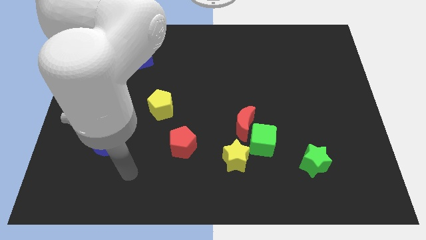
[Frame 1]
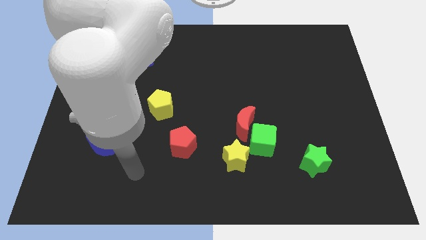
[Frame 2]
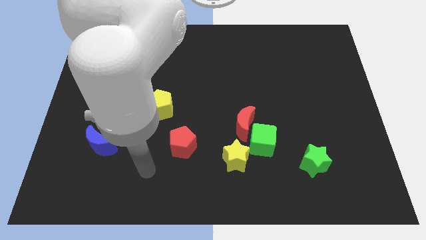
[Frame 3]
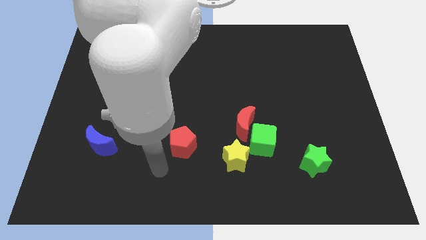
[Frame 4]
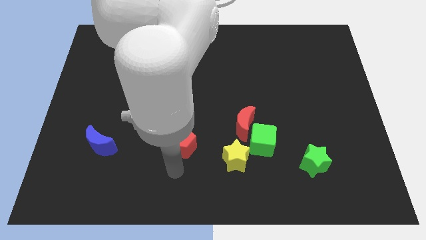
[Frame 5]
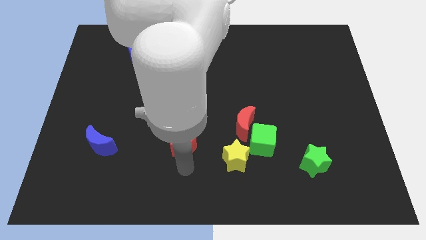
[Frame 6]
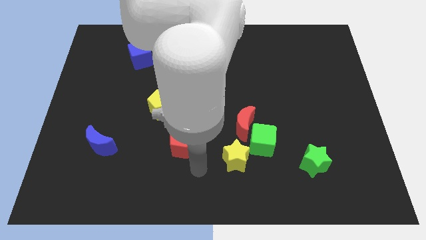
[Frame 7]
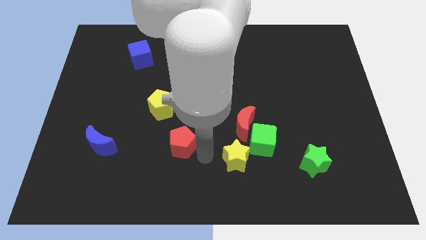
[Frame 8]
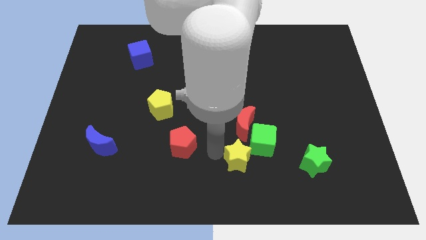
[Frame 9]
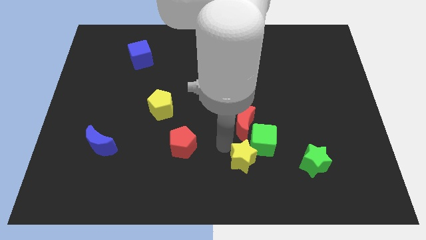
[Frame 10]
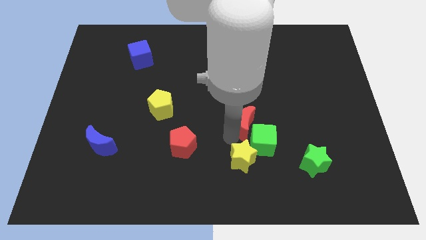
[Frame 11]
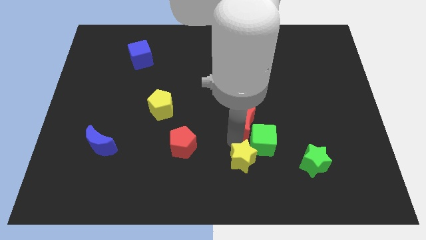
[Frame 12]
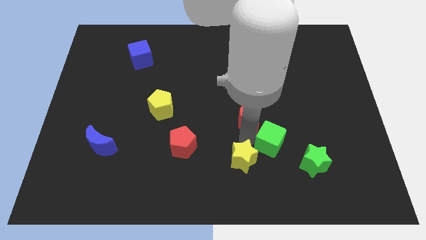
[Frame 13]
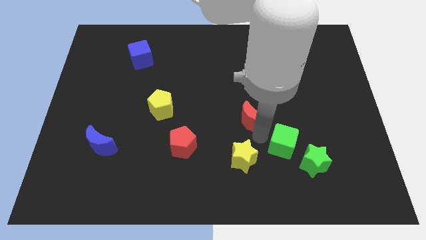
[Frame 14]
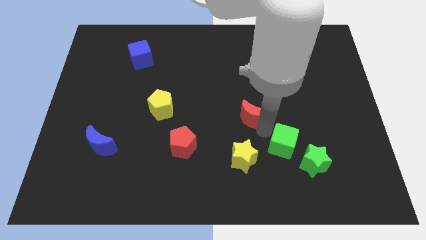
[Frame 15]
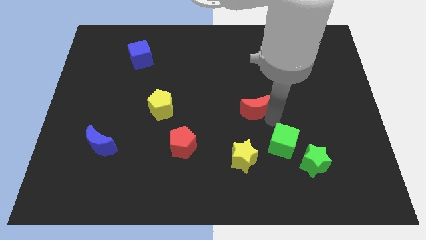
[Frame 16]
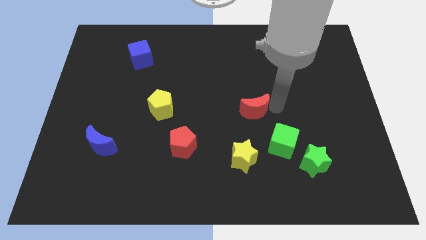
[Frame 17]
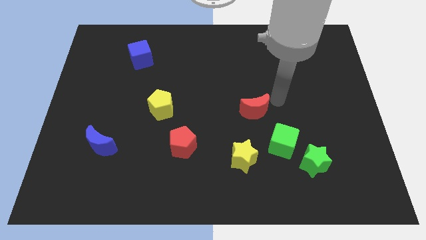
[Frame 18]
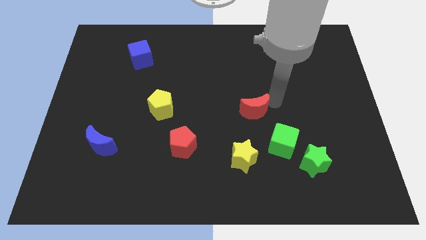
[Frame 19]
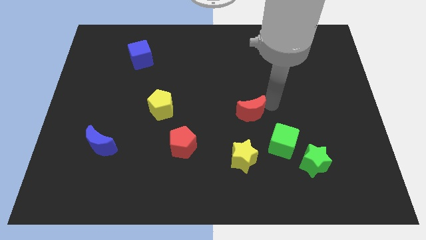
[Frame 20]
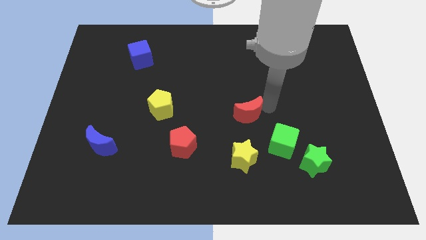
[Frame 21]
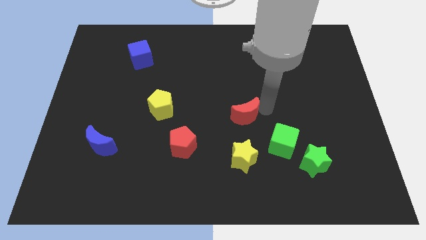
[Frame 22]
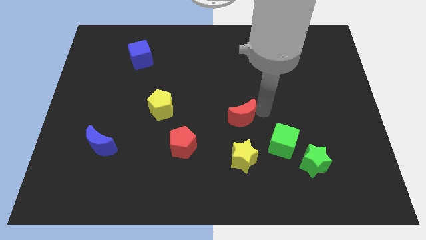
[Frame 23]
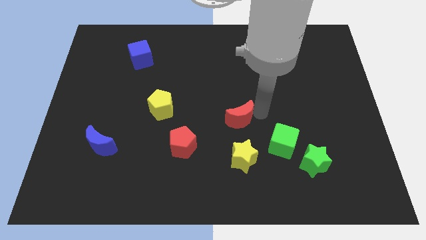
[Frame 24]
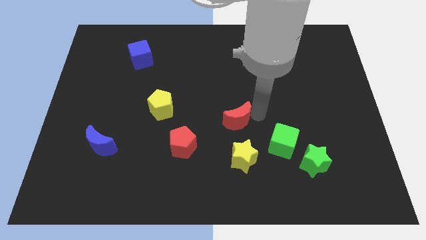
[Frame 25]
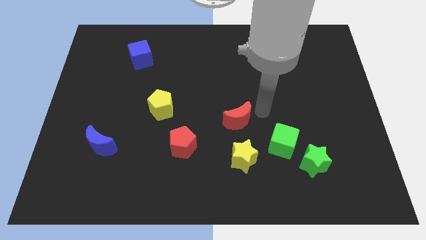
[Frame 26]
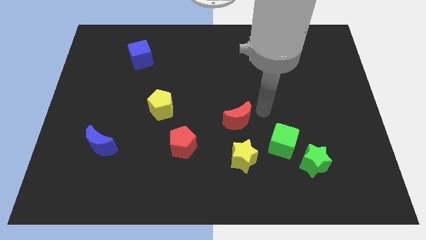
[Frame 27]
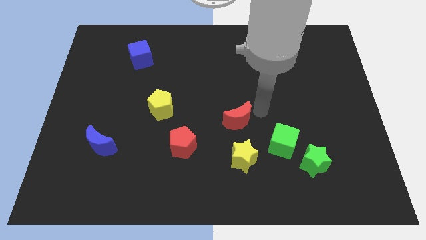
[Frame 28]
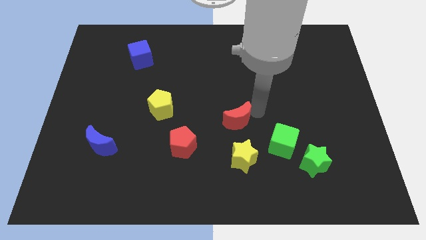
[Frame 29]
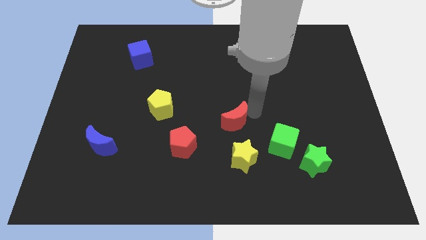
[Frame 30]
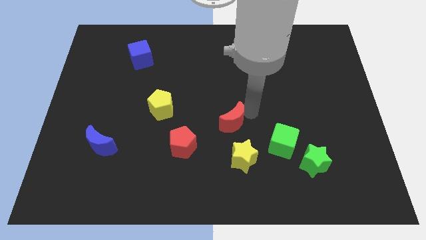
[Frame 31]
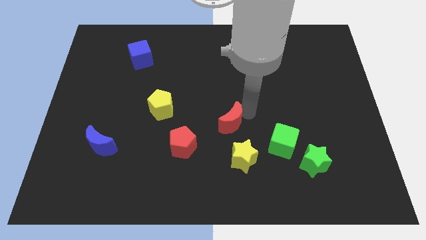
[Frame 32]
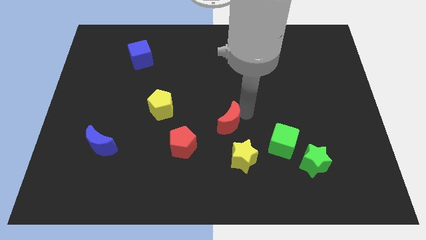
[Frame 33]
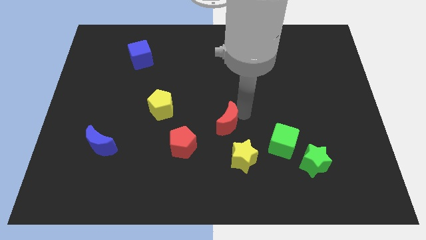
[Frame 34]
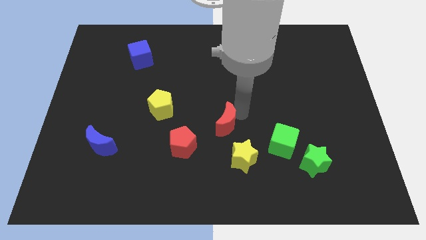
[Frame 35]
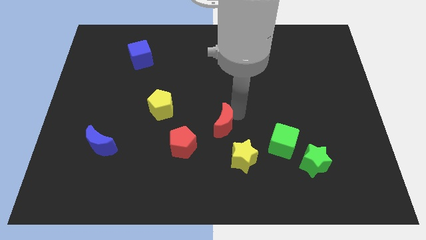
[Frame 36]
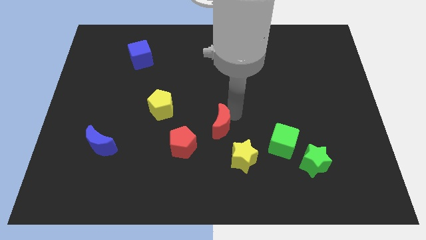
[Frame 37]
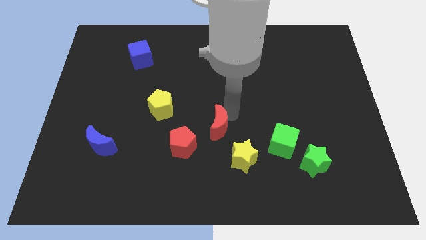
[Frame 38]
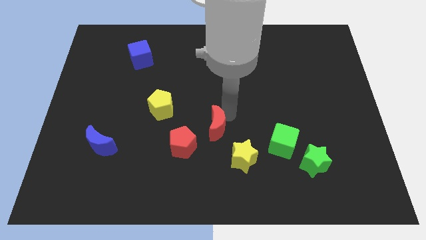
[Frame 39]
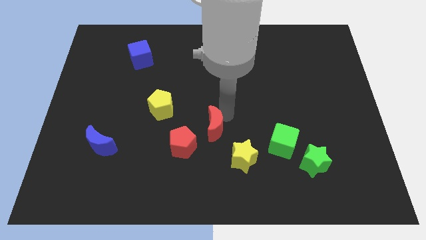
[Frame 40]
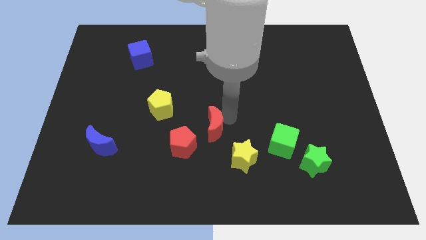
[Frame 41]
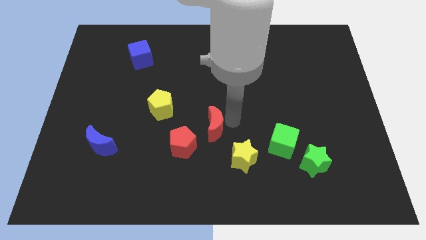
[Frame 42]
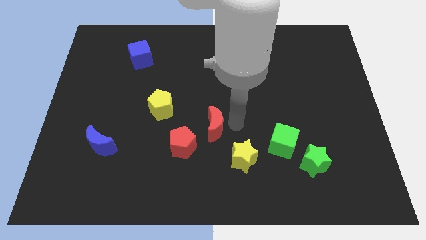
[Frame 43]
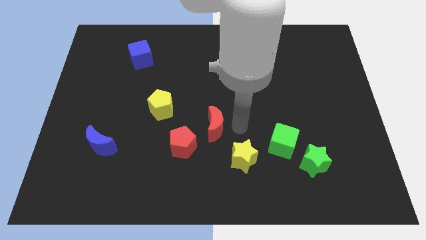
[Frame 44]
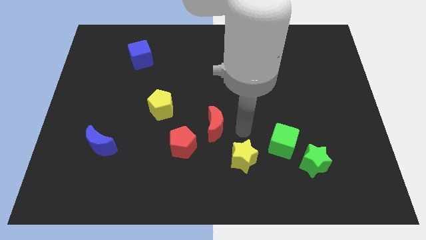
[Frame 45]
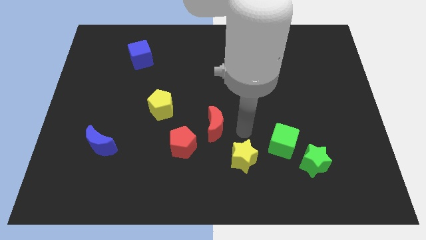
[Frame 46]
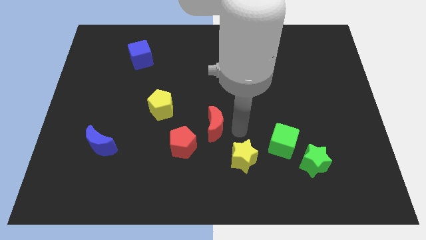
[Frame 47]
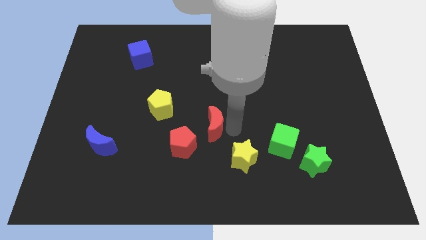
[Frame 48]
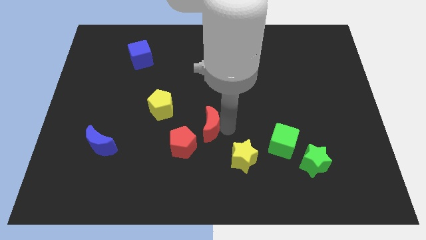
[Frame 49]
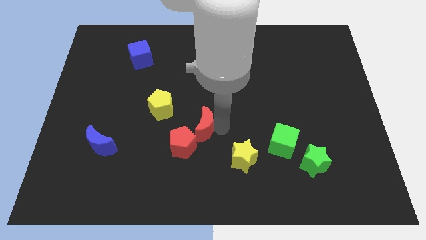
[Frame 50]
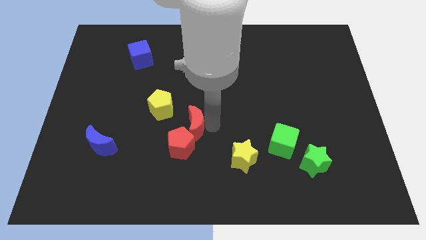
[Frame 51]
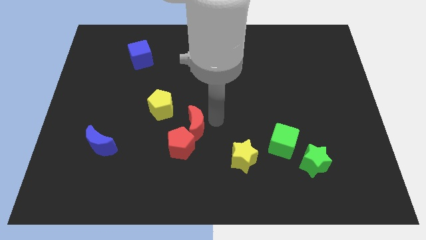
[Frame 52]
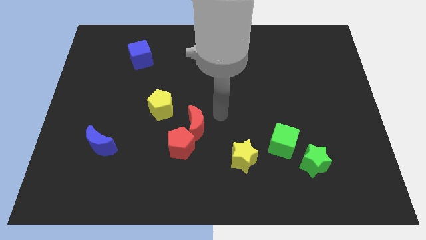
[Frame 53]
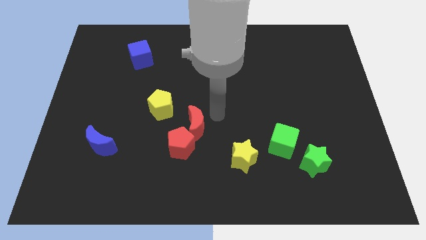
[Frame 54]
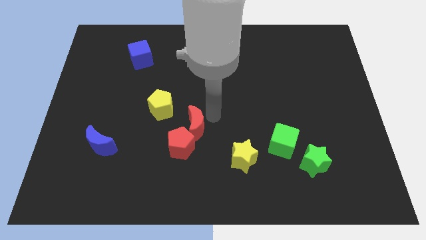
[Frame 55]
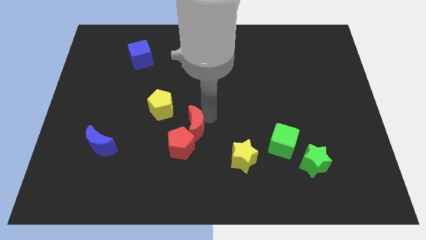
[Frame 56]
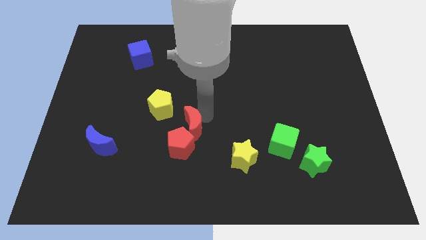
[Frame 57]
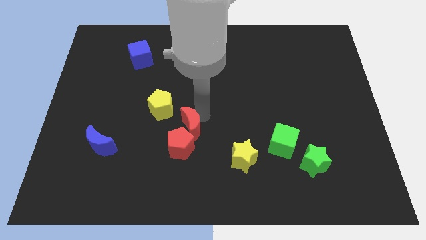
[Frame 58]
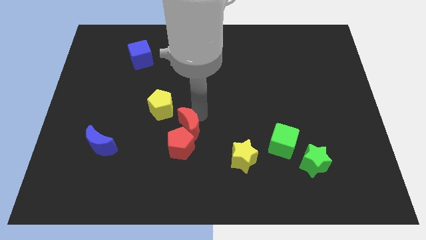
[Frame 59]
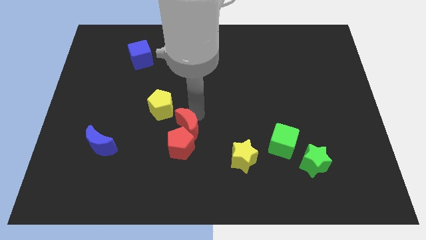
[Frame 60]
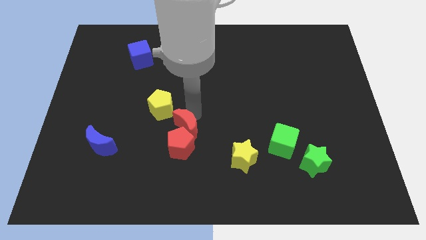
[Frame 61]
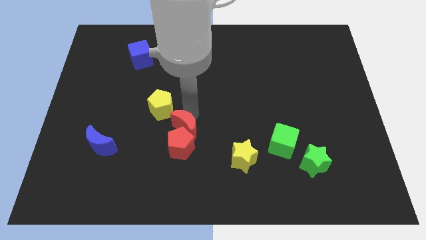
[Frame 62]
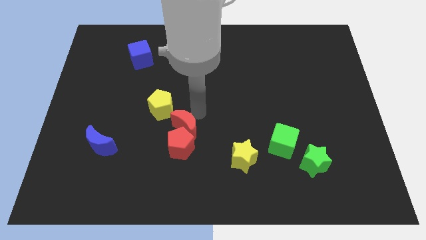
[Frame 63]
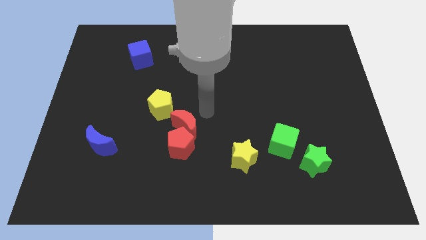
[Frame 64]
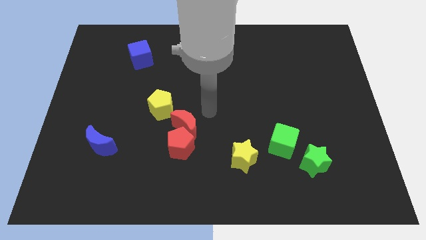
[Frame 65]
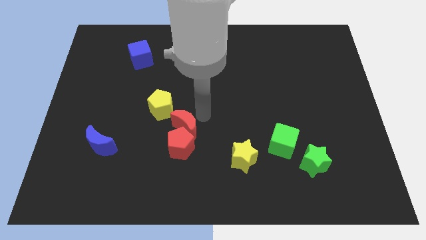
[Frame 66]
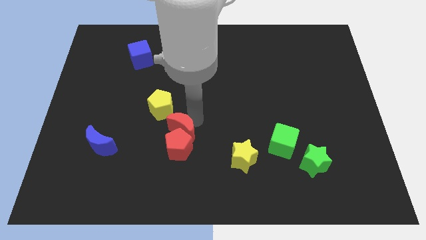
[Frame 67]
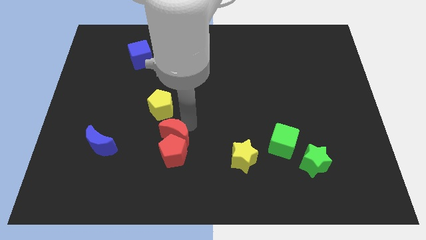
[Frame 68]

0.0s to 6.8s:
slide the red moon to the bottom of the yellow pentagon

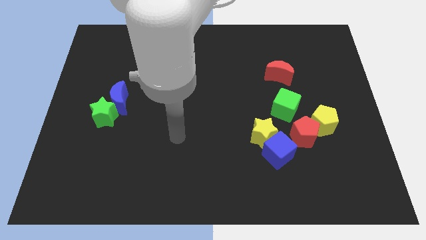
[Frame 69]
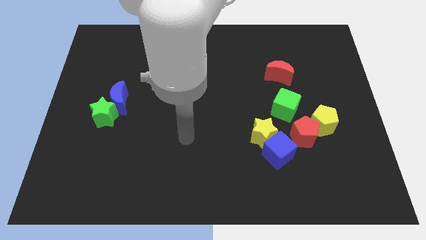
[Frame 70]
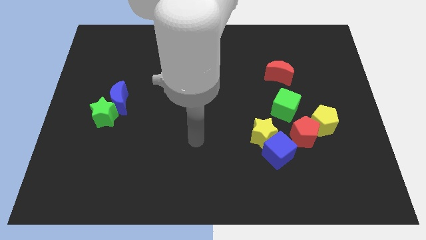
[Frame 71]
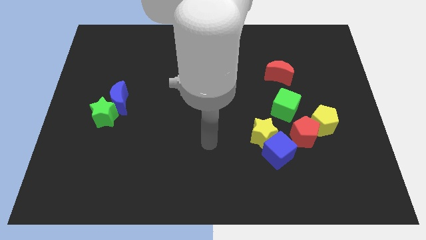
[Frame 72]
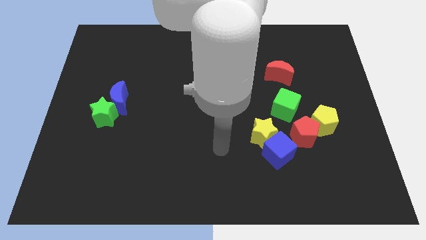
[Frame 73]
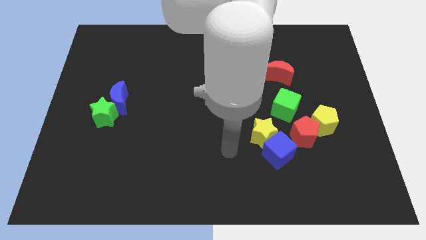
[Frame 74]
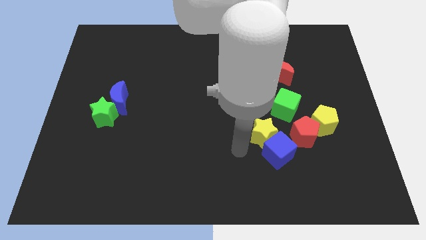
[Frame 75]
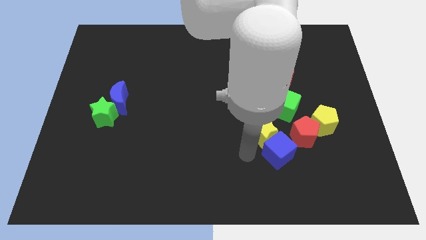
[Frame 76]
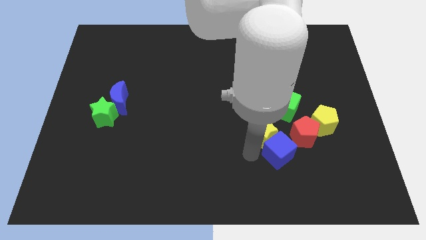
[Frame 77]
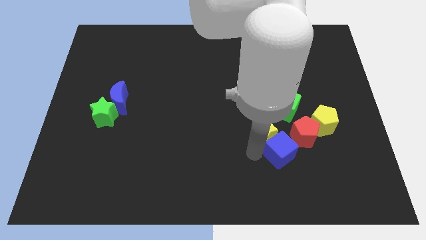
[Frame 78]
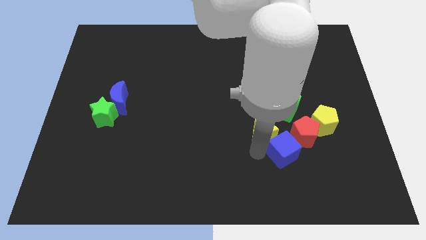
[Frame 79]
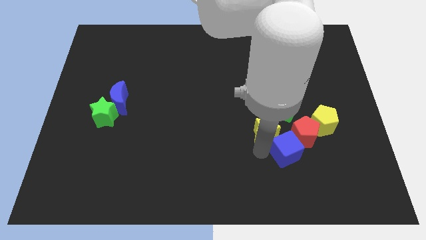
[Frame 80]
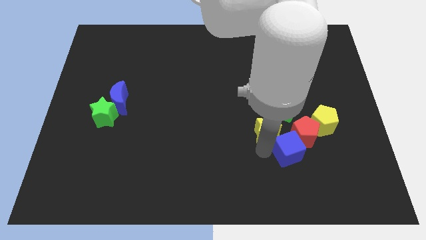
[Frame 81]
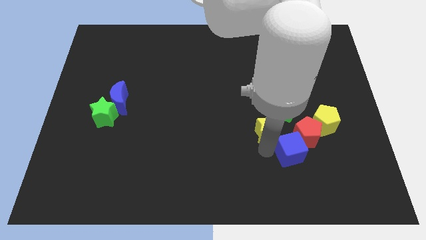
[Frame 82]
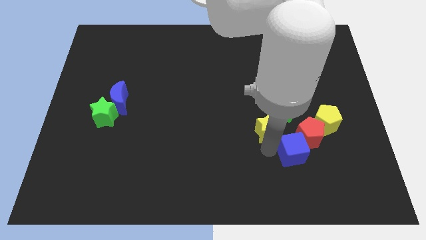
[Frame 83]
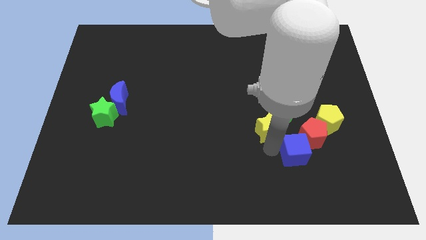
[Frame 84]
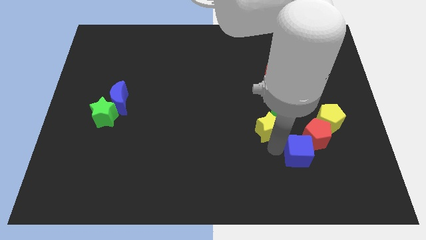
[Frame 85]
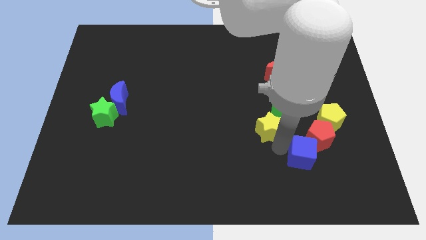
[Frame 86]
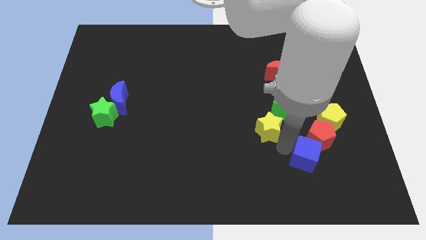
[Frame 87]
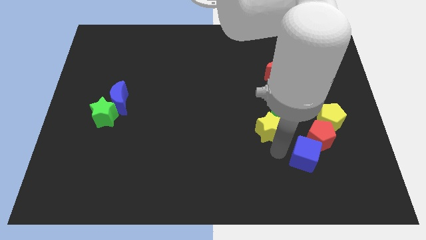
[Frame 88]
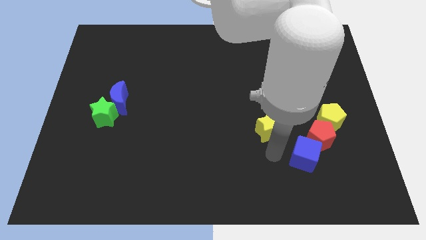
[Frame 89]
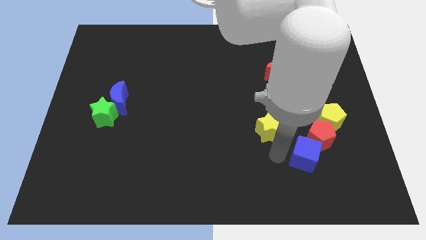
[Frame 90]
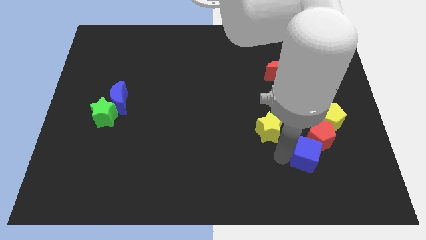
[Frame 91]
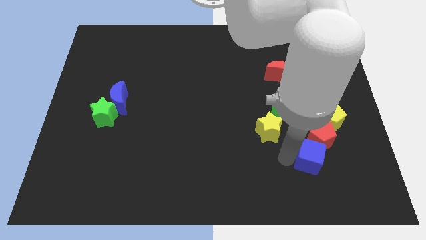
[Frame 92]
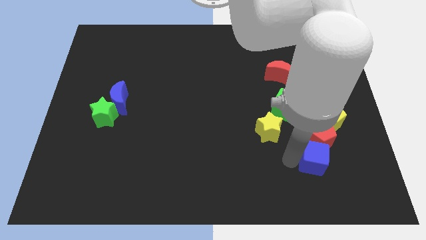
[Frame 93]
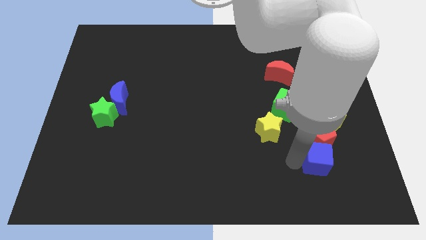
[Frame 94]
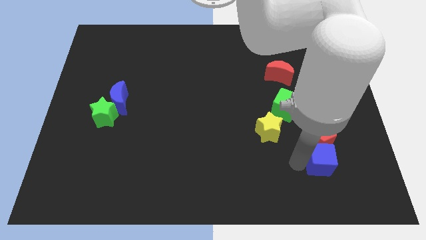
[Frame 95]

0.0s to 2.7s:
put the blue cube to the bottom right of the red pentagon
